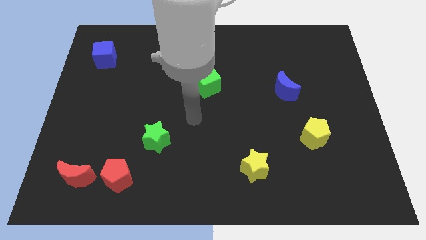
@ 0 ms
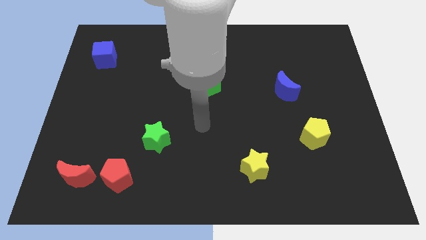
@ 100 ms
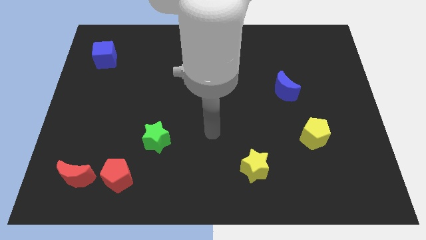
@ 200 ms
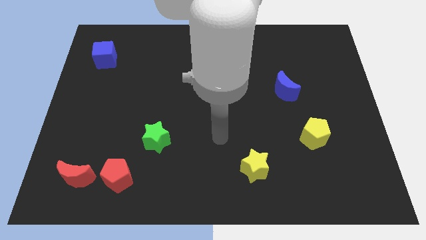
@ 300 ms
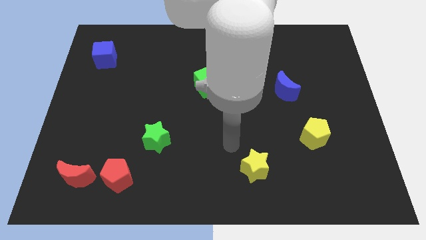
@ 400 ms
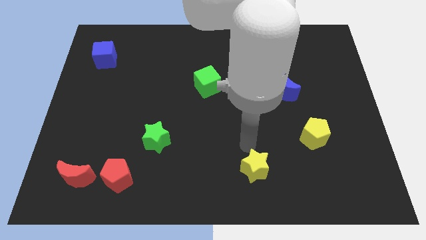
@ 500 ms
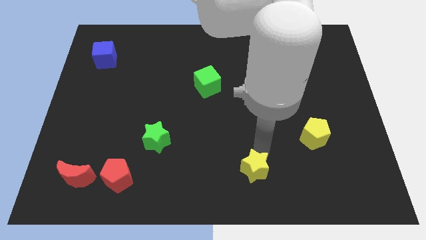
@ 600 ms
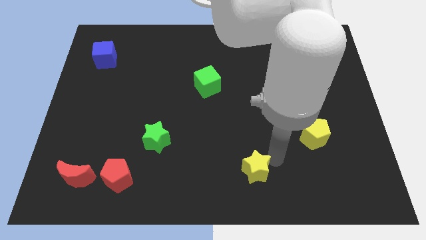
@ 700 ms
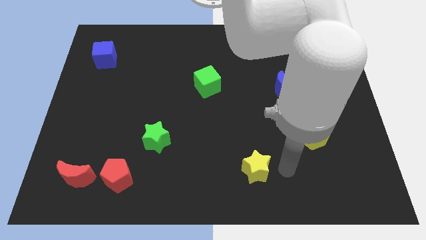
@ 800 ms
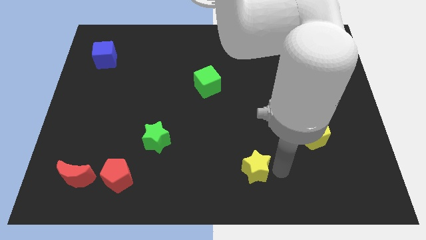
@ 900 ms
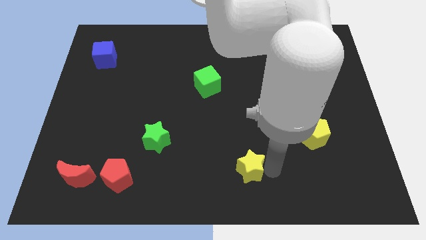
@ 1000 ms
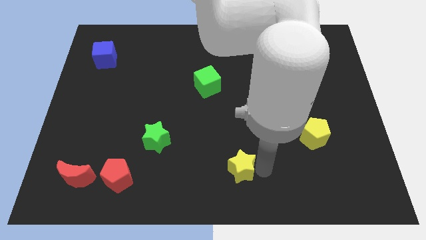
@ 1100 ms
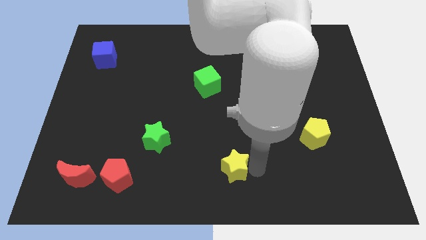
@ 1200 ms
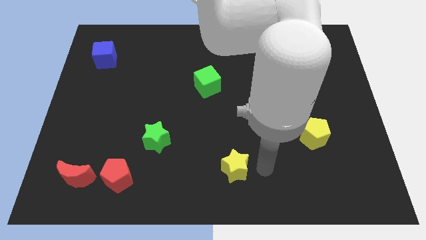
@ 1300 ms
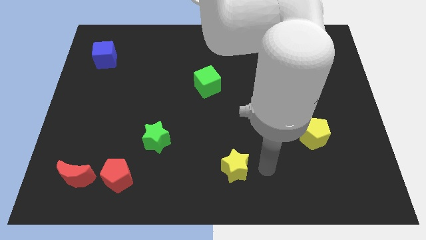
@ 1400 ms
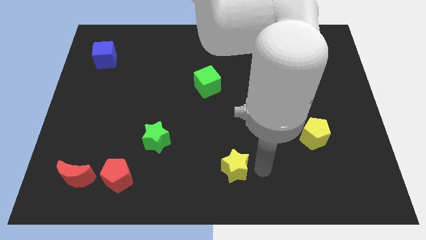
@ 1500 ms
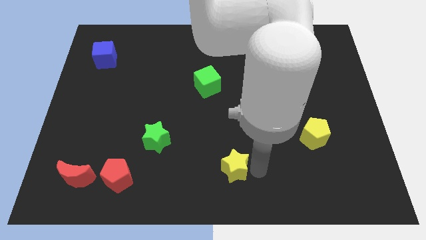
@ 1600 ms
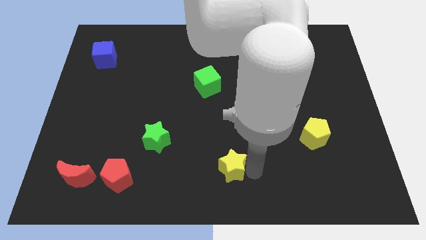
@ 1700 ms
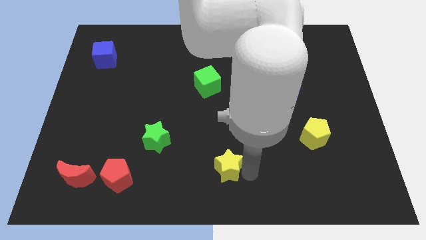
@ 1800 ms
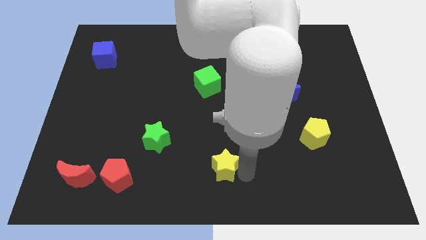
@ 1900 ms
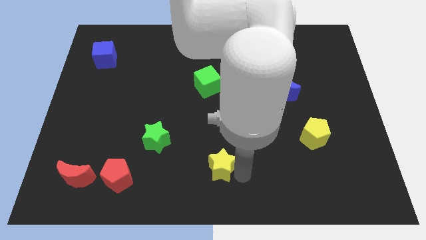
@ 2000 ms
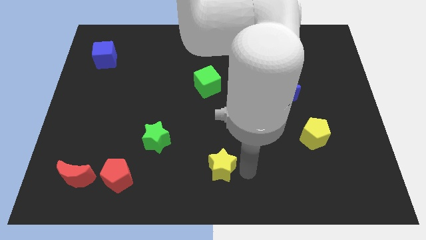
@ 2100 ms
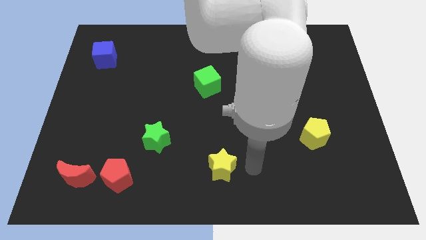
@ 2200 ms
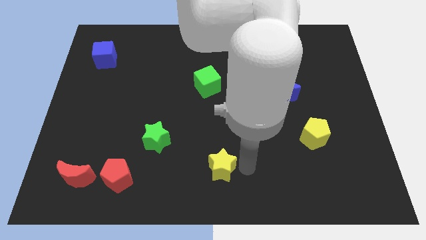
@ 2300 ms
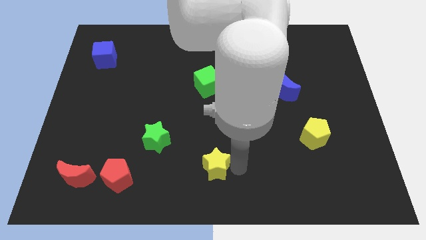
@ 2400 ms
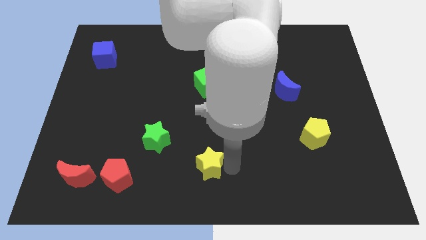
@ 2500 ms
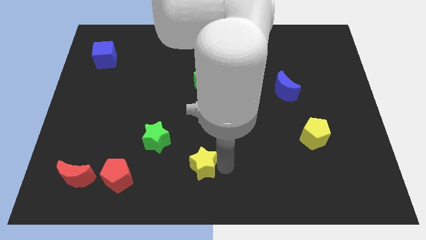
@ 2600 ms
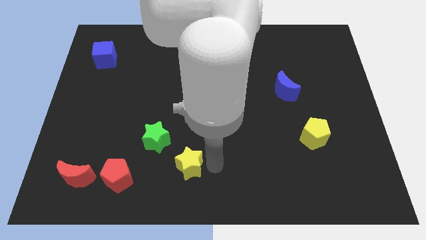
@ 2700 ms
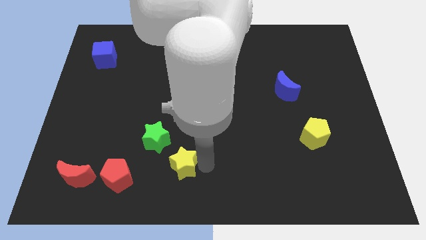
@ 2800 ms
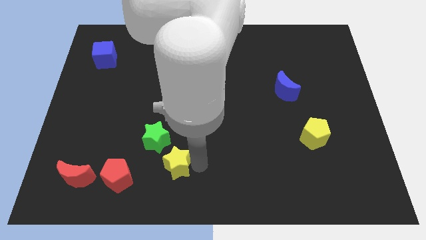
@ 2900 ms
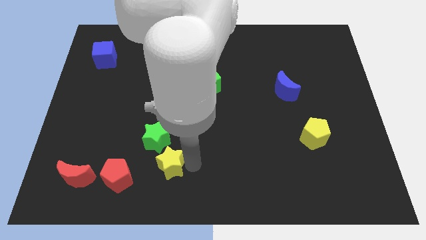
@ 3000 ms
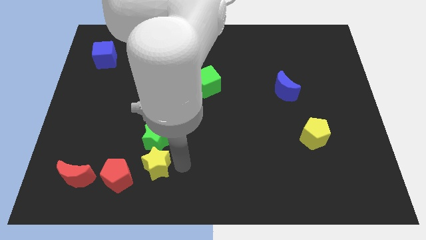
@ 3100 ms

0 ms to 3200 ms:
move the yellow star to the left

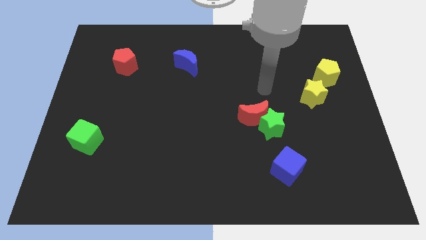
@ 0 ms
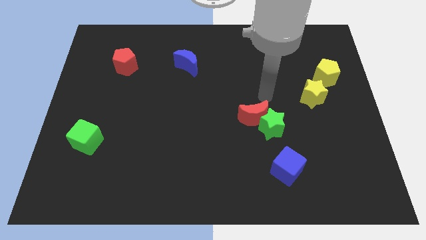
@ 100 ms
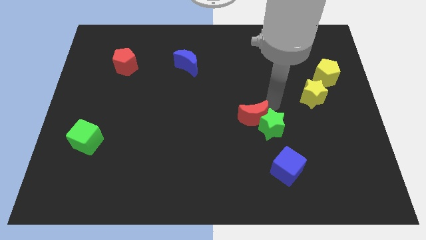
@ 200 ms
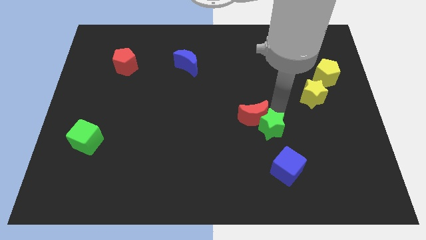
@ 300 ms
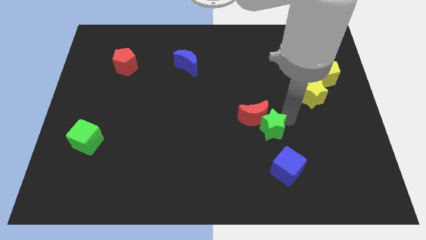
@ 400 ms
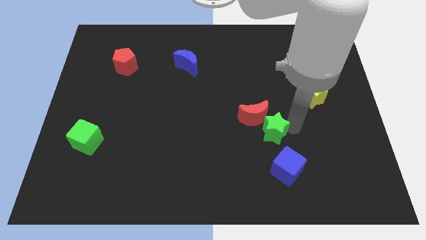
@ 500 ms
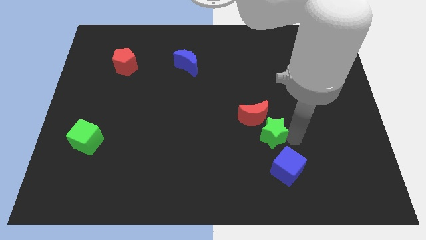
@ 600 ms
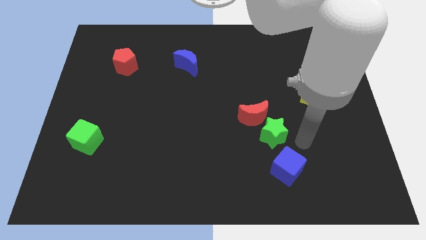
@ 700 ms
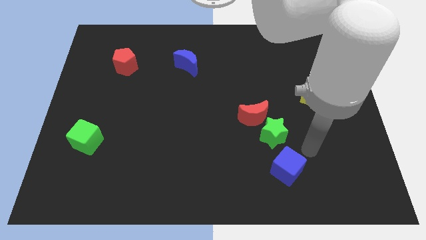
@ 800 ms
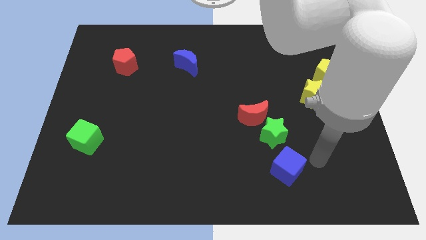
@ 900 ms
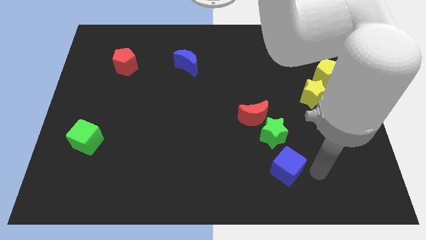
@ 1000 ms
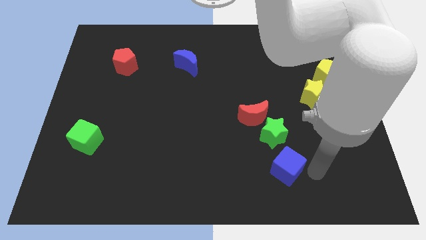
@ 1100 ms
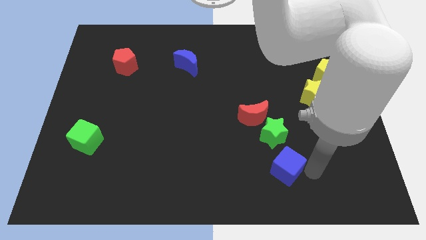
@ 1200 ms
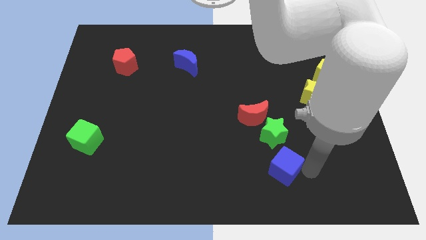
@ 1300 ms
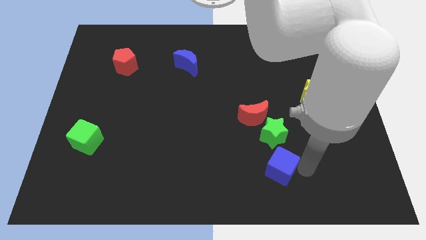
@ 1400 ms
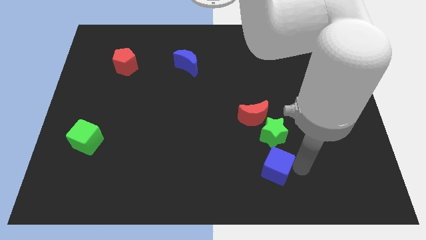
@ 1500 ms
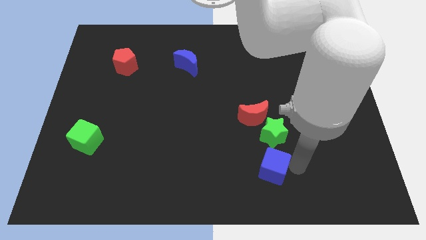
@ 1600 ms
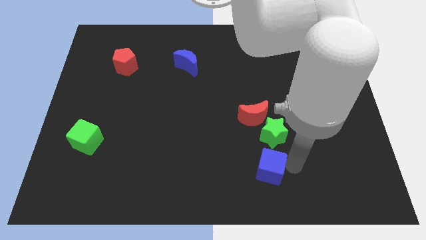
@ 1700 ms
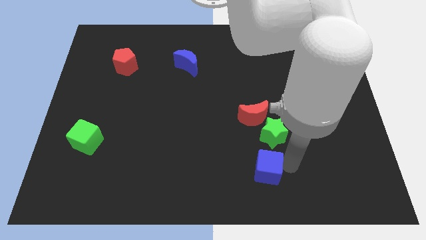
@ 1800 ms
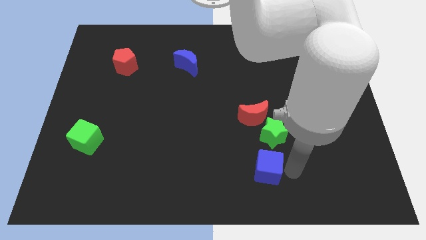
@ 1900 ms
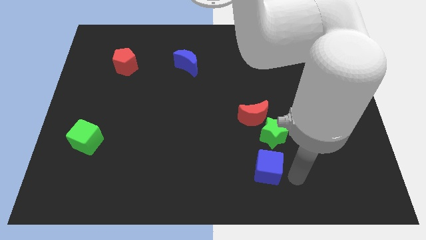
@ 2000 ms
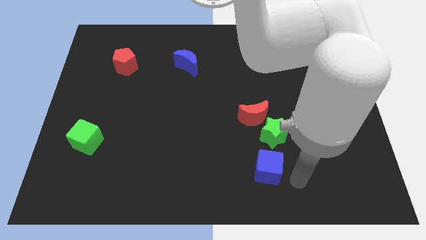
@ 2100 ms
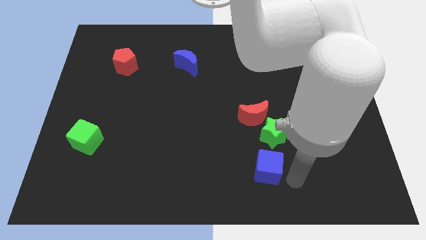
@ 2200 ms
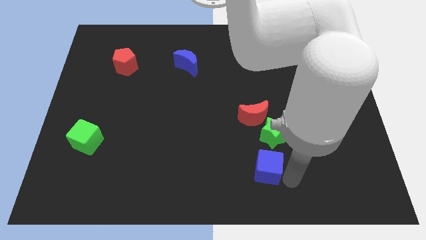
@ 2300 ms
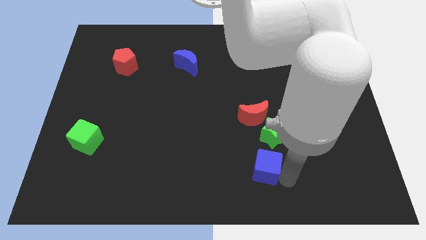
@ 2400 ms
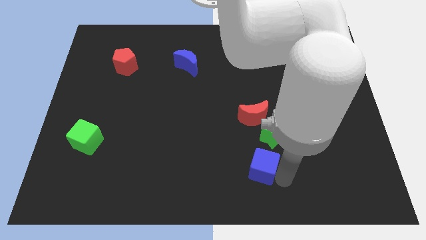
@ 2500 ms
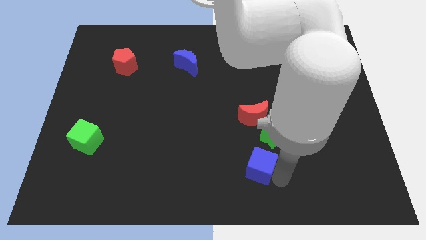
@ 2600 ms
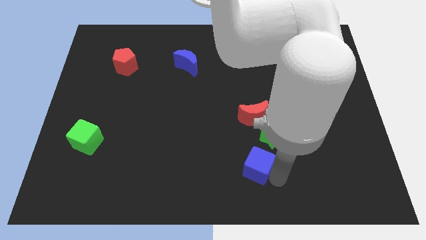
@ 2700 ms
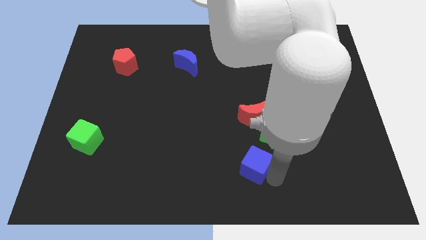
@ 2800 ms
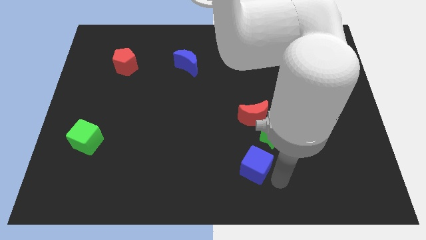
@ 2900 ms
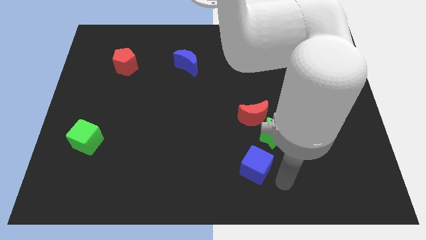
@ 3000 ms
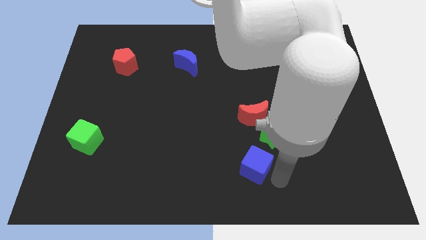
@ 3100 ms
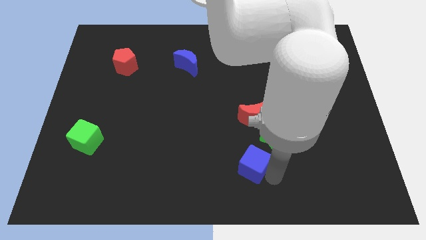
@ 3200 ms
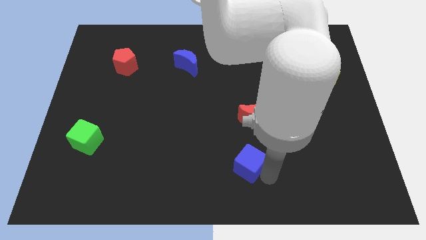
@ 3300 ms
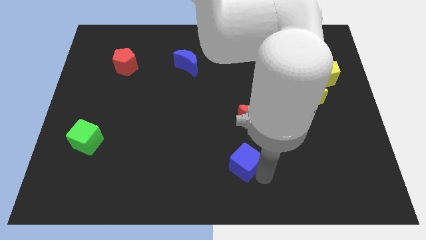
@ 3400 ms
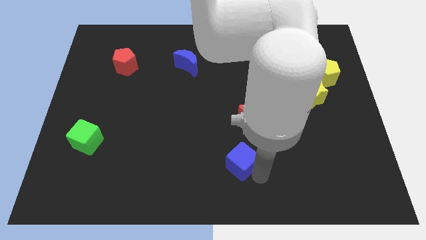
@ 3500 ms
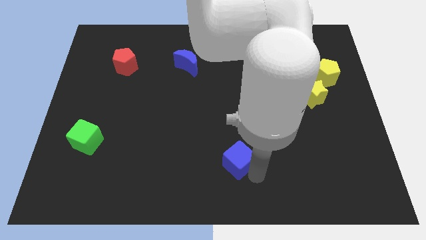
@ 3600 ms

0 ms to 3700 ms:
move the blue cube a little upwards and left diagonally

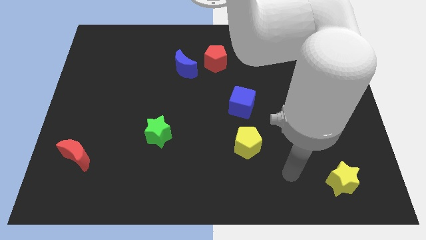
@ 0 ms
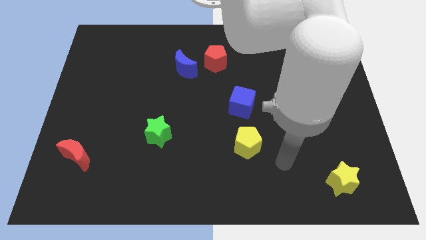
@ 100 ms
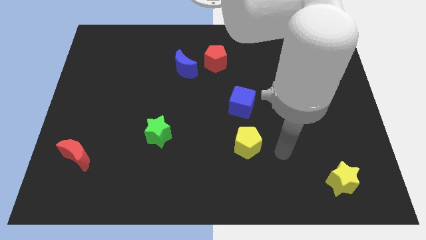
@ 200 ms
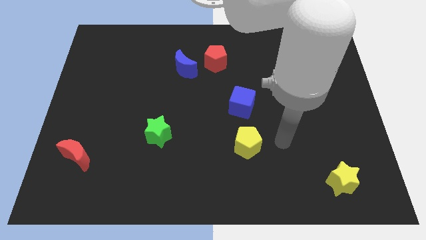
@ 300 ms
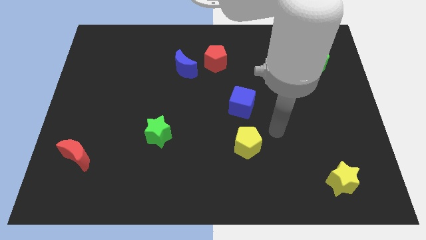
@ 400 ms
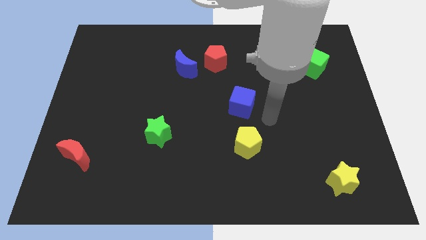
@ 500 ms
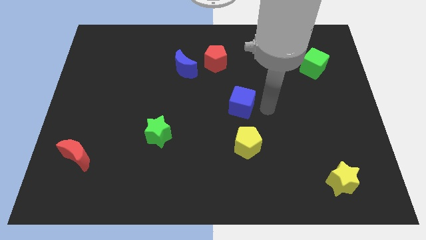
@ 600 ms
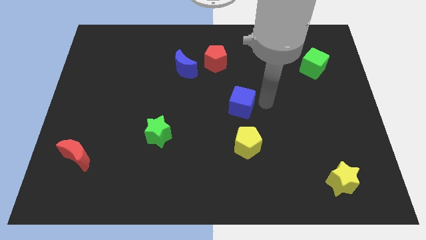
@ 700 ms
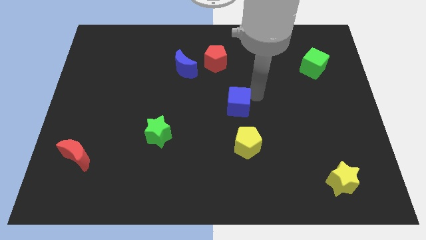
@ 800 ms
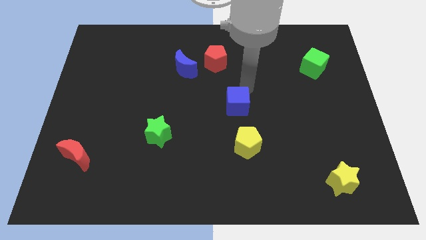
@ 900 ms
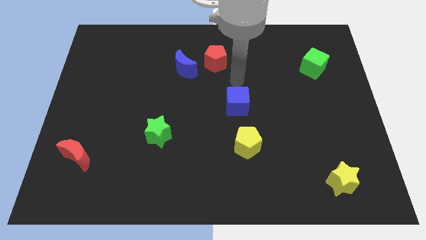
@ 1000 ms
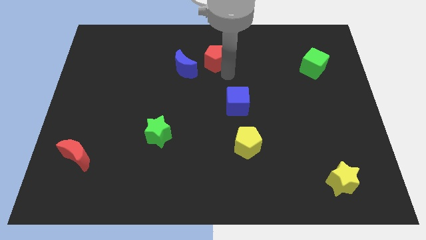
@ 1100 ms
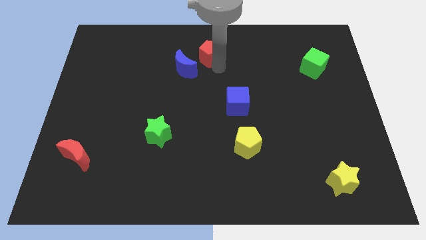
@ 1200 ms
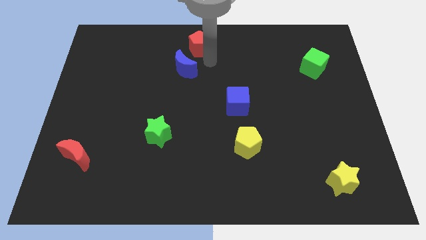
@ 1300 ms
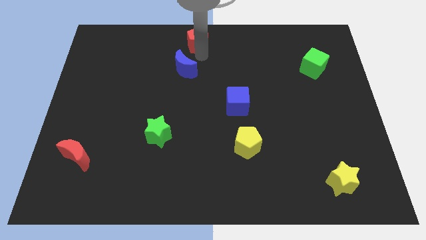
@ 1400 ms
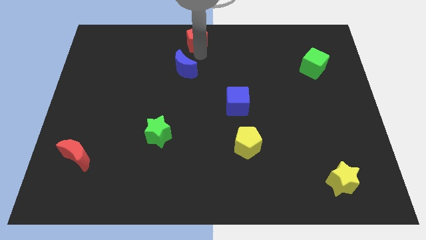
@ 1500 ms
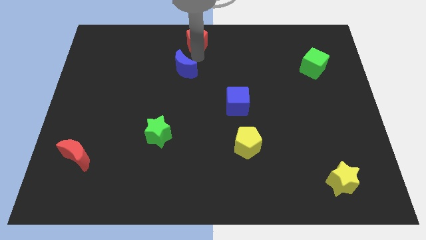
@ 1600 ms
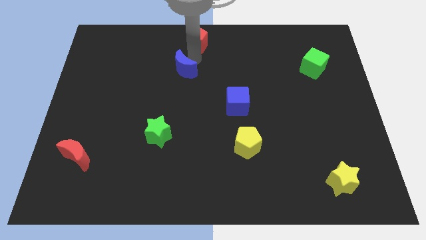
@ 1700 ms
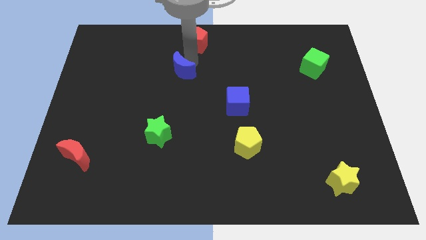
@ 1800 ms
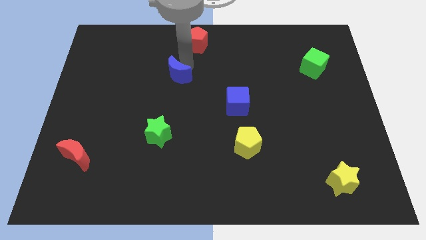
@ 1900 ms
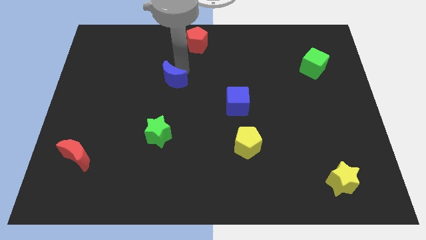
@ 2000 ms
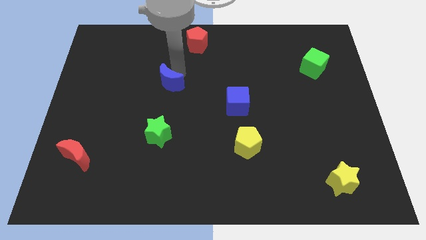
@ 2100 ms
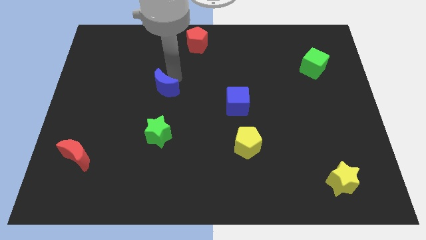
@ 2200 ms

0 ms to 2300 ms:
move the blue moon downwards and to the left diagonally somewhat
